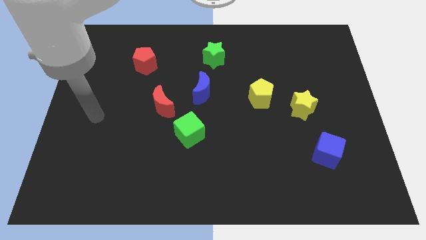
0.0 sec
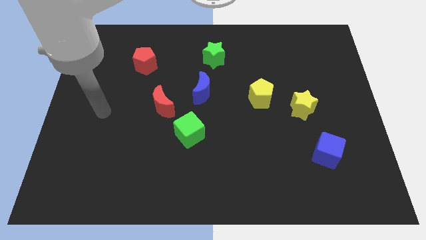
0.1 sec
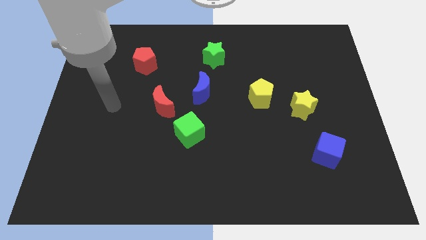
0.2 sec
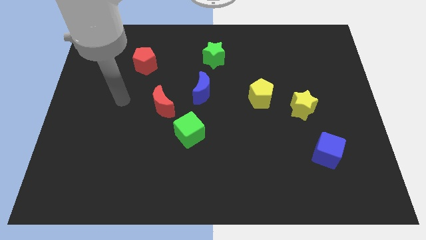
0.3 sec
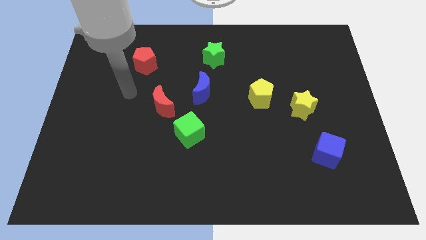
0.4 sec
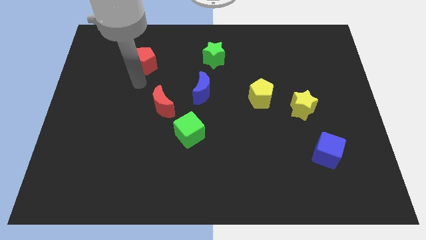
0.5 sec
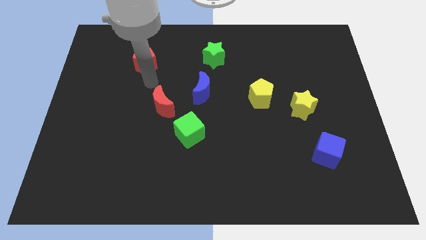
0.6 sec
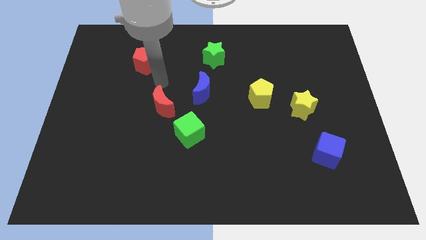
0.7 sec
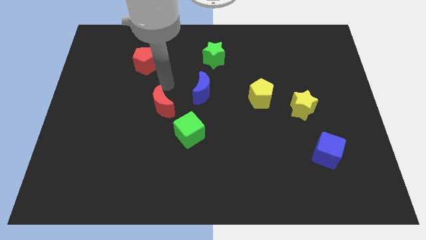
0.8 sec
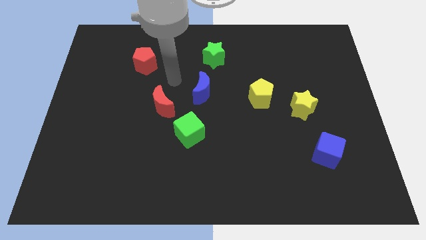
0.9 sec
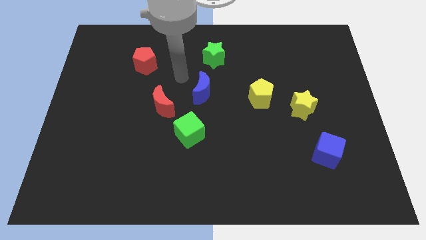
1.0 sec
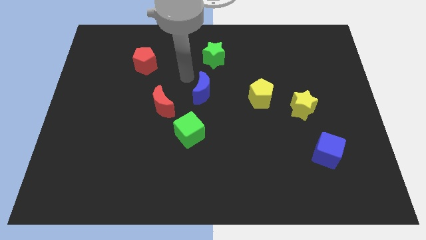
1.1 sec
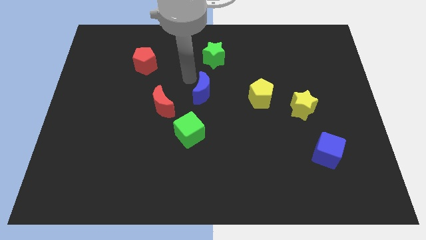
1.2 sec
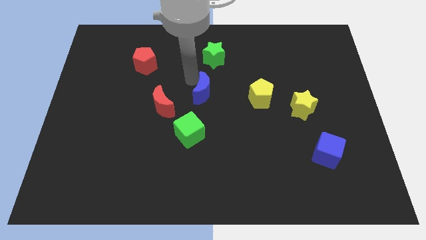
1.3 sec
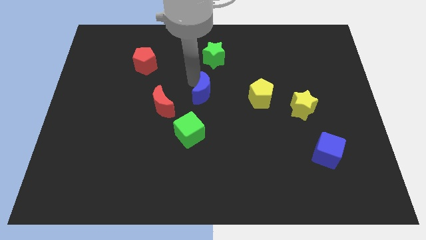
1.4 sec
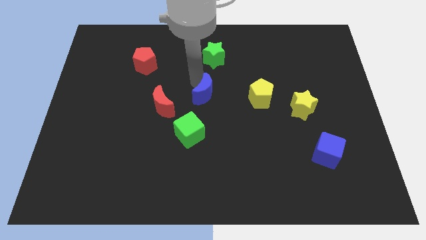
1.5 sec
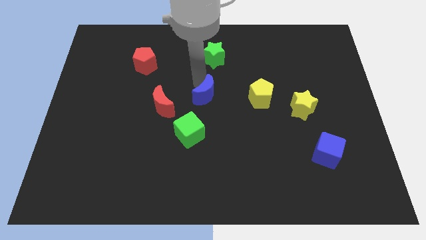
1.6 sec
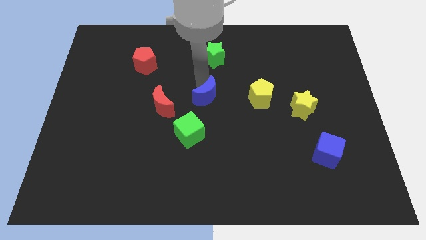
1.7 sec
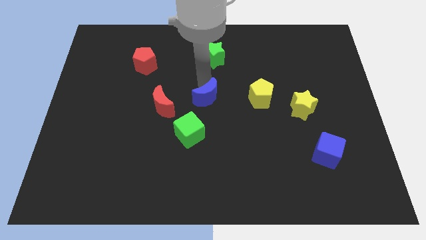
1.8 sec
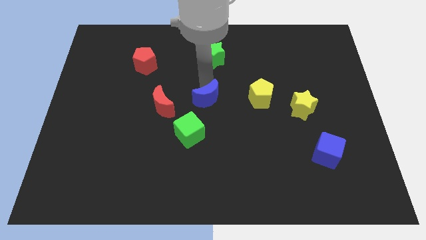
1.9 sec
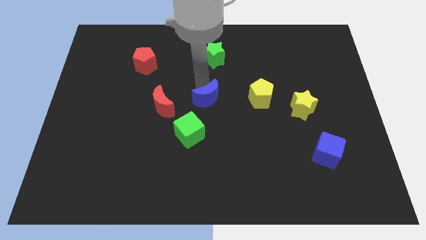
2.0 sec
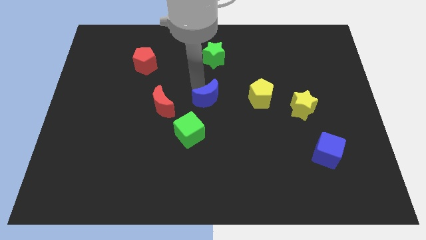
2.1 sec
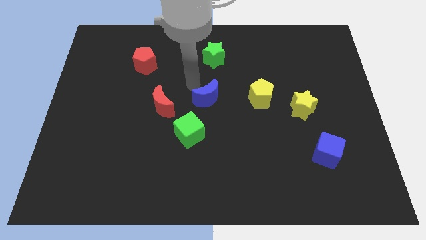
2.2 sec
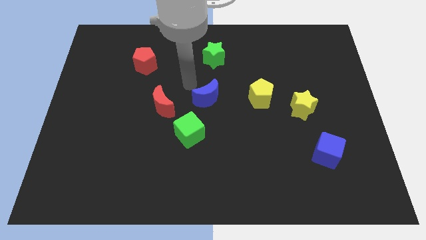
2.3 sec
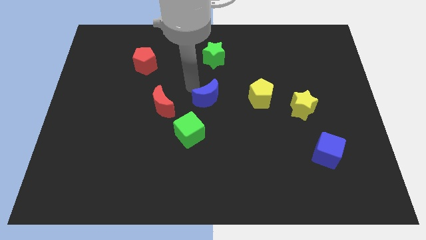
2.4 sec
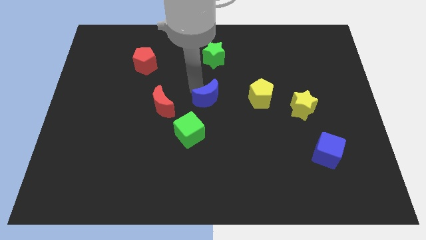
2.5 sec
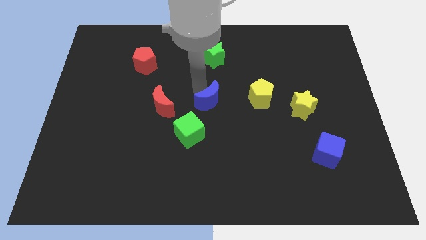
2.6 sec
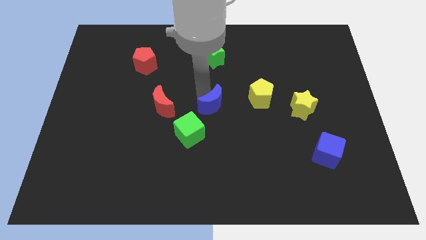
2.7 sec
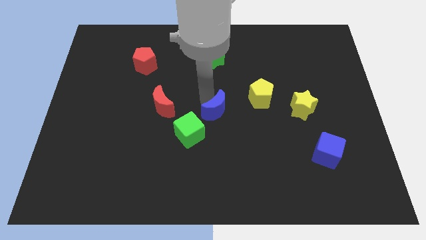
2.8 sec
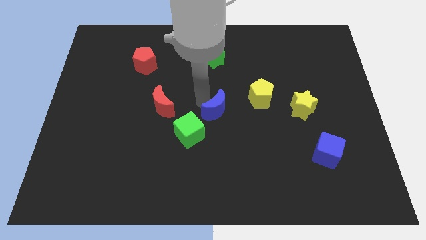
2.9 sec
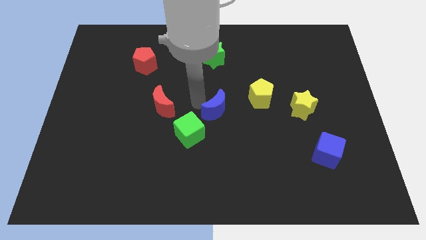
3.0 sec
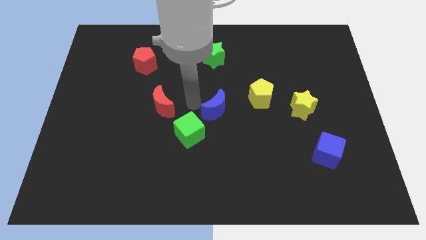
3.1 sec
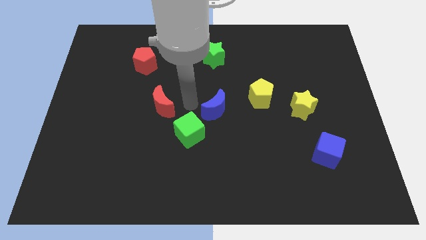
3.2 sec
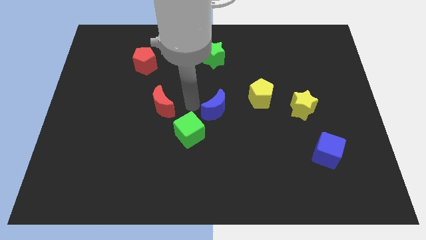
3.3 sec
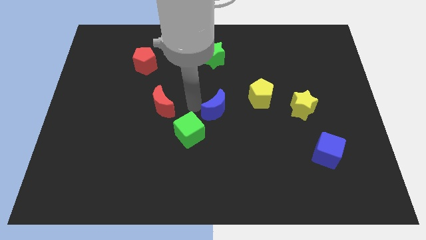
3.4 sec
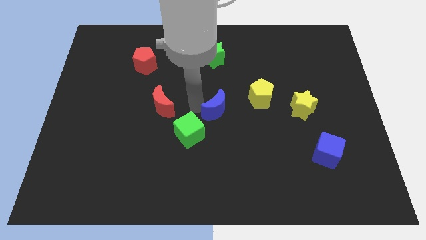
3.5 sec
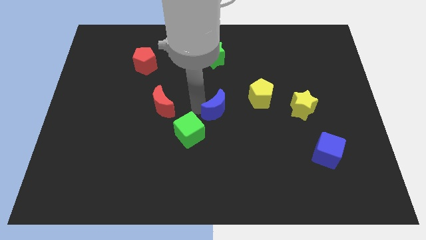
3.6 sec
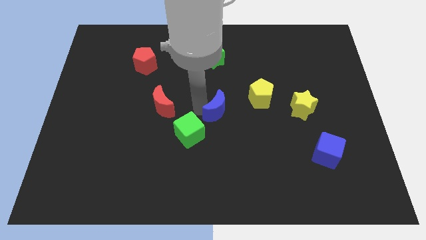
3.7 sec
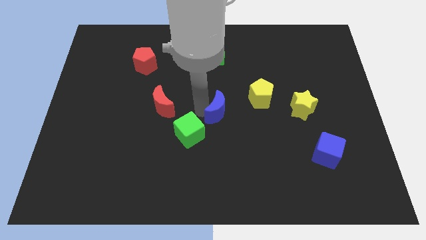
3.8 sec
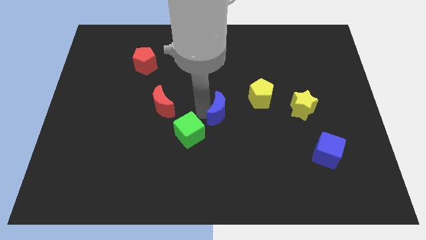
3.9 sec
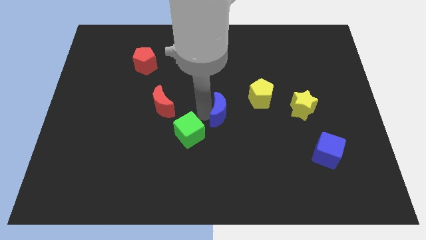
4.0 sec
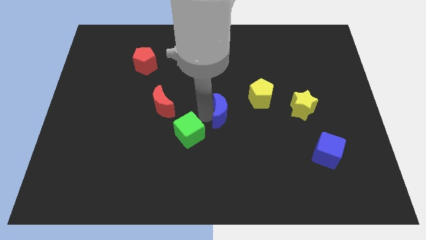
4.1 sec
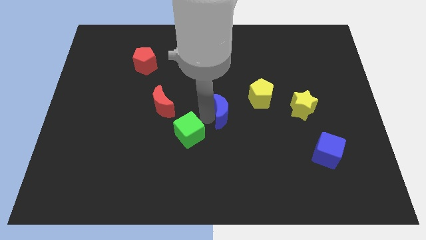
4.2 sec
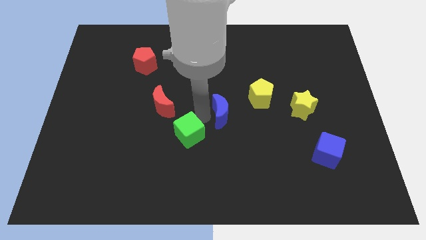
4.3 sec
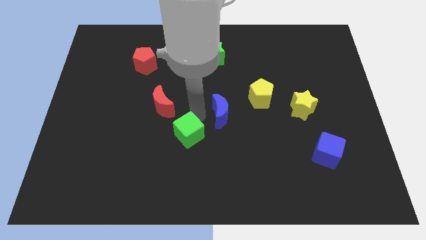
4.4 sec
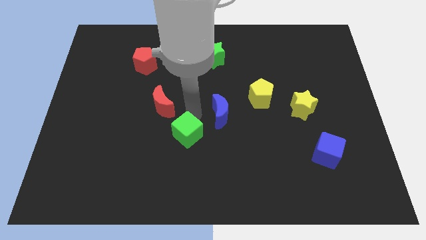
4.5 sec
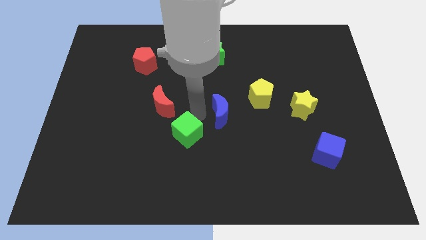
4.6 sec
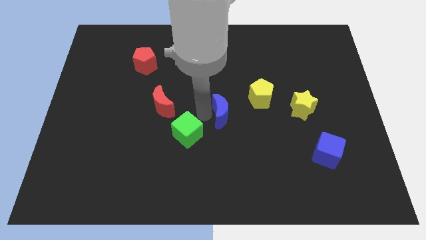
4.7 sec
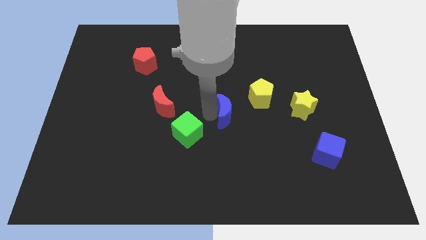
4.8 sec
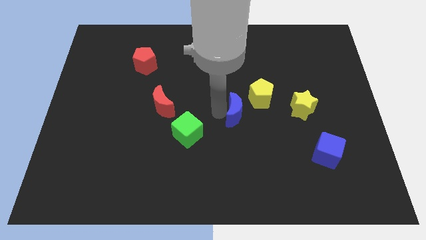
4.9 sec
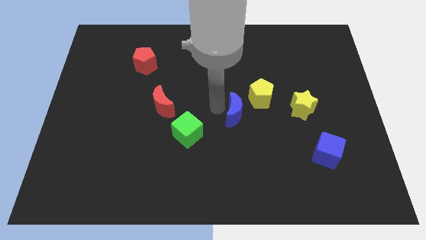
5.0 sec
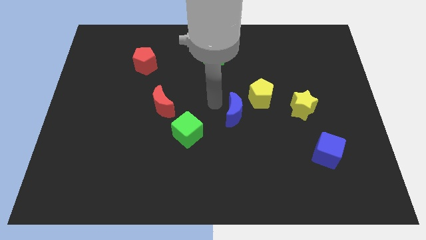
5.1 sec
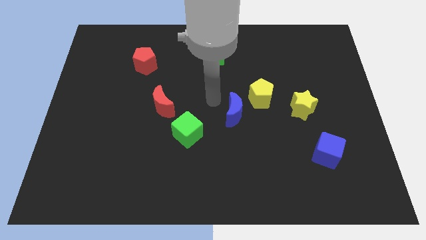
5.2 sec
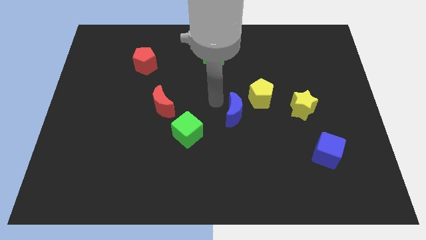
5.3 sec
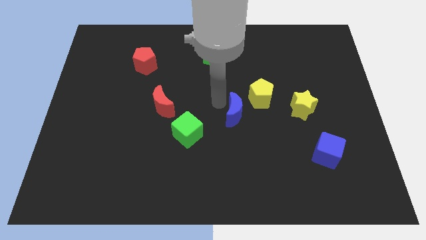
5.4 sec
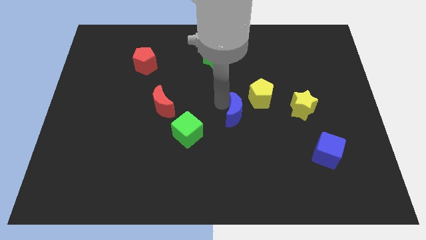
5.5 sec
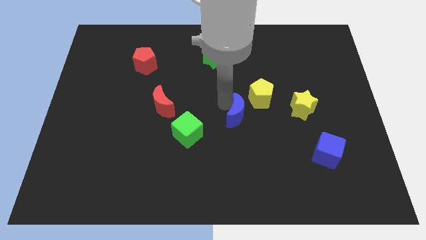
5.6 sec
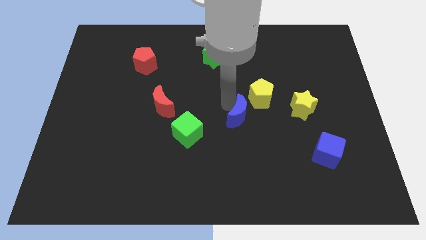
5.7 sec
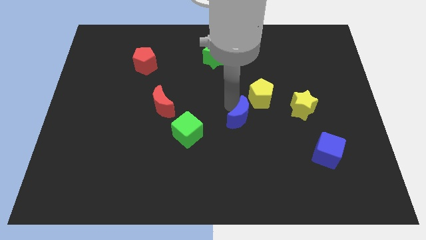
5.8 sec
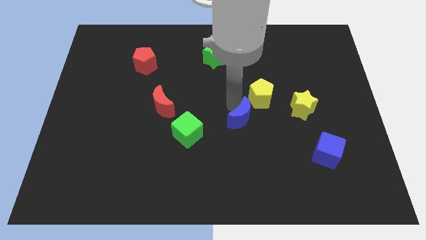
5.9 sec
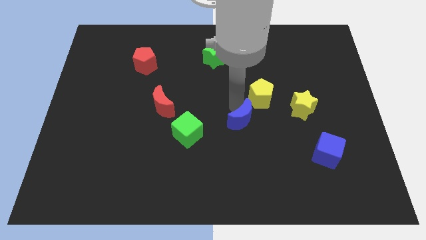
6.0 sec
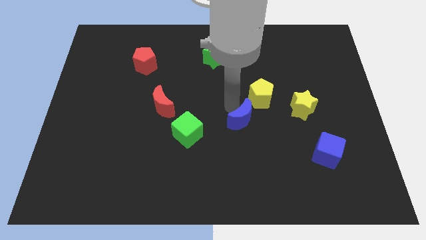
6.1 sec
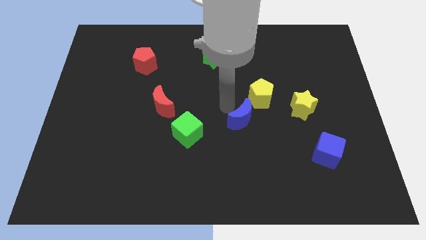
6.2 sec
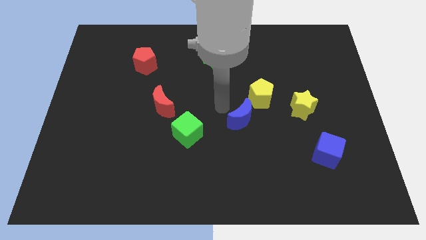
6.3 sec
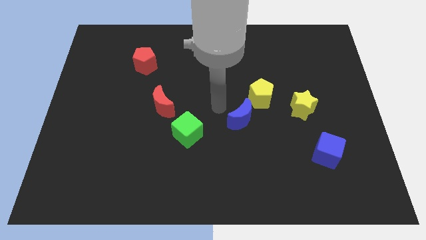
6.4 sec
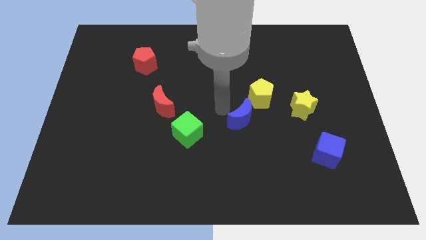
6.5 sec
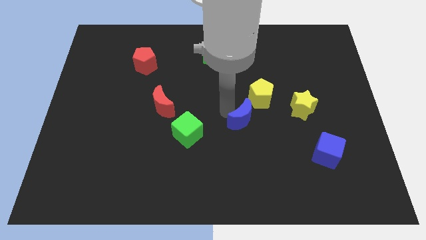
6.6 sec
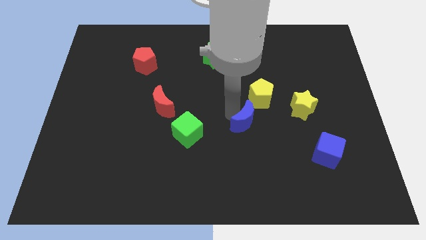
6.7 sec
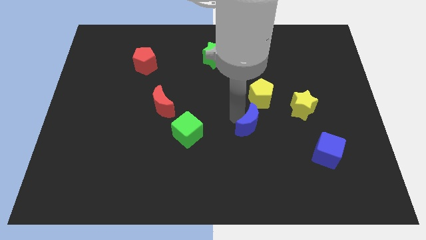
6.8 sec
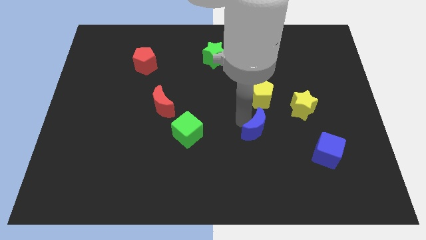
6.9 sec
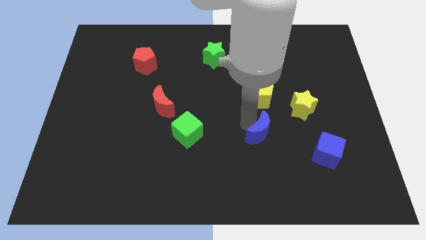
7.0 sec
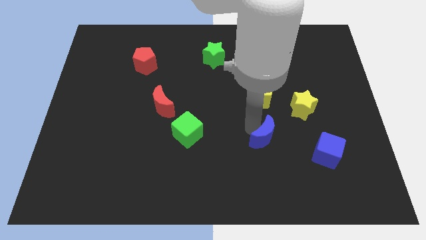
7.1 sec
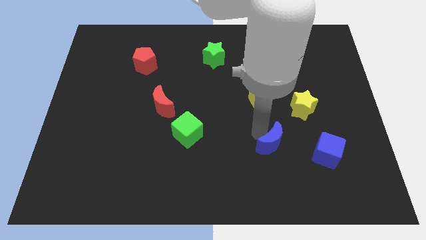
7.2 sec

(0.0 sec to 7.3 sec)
slide the blue moon downwards and right diagonally

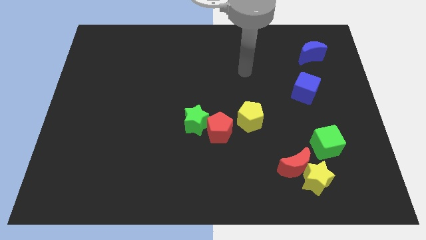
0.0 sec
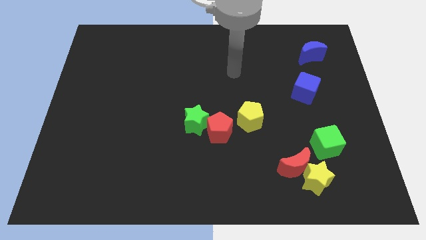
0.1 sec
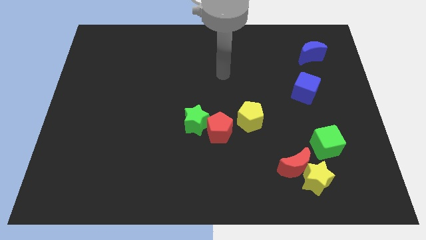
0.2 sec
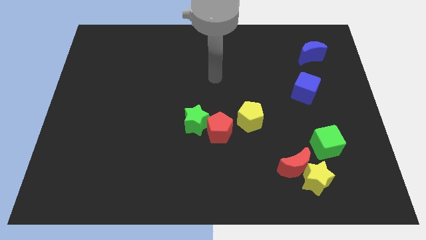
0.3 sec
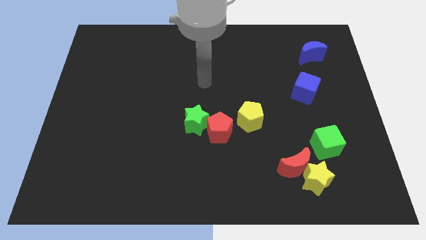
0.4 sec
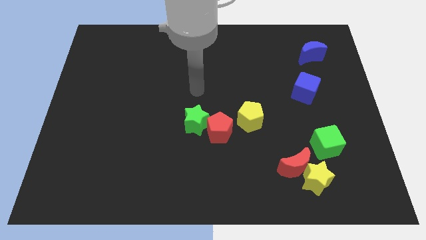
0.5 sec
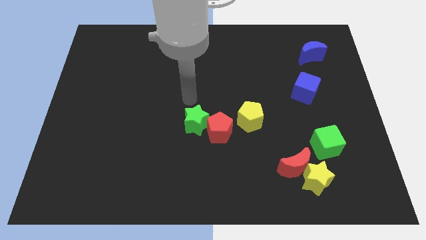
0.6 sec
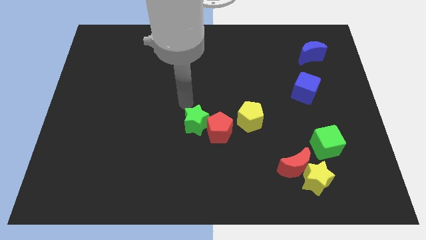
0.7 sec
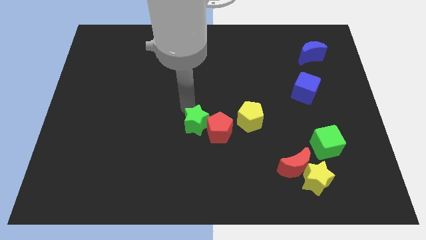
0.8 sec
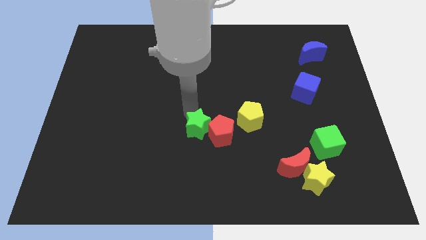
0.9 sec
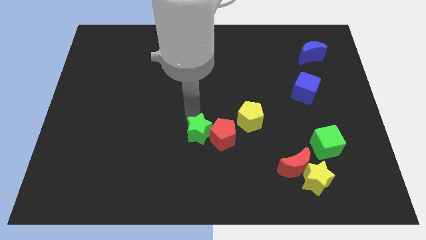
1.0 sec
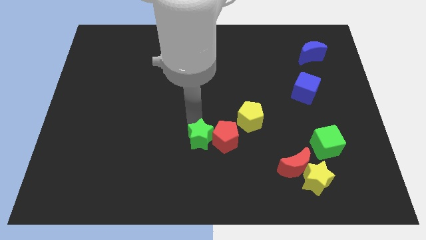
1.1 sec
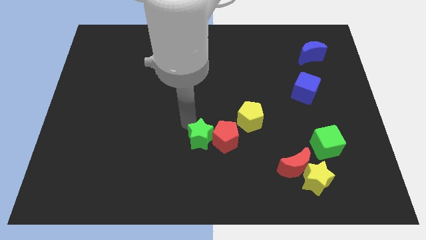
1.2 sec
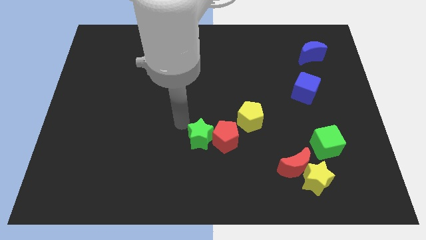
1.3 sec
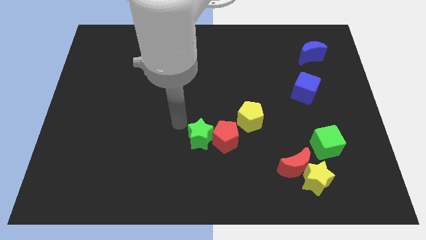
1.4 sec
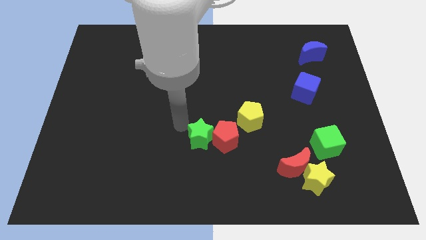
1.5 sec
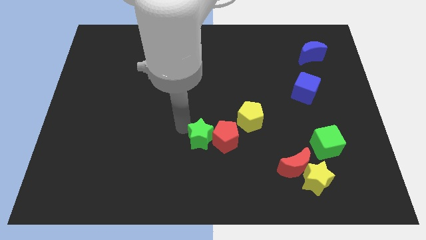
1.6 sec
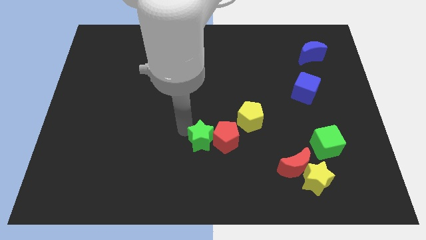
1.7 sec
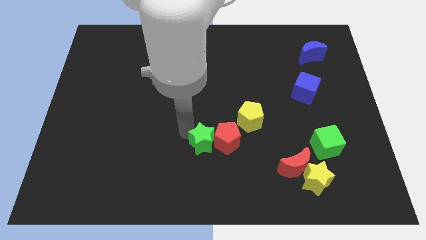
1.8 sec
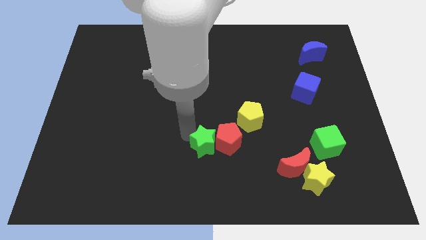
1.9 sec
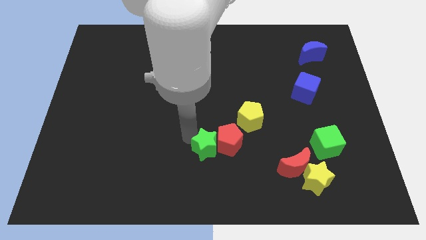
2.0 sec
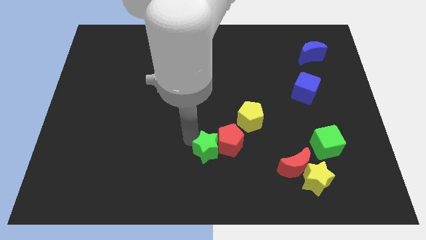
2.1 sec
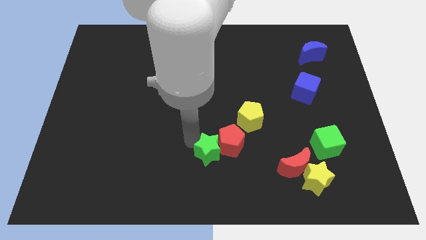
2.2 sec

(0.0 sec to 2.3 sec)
push the green star diagonally down and to the right a bit
